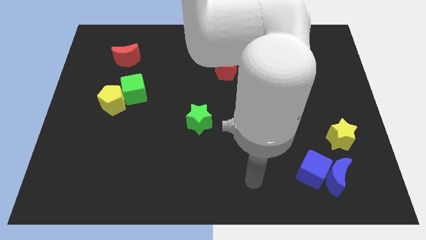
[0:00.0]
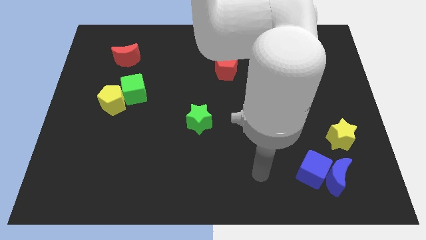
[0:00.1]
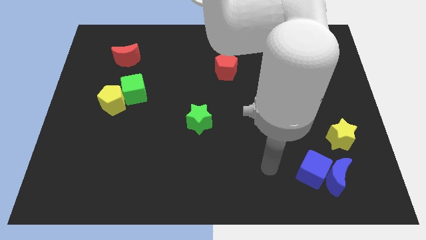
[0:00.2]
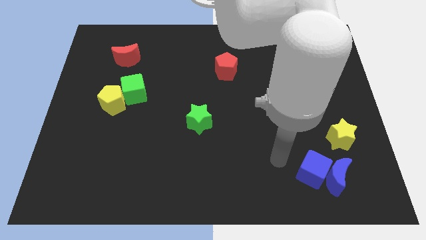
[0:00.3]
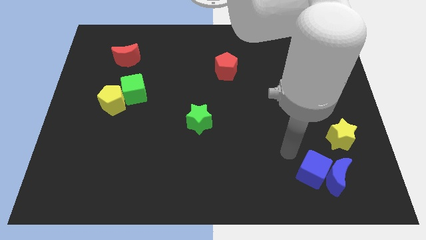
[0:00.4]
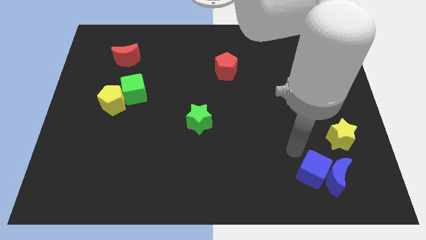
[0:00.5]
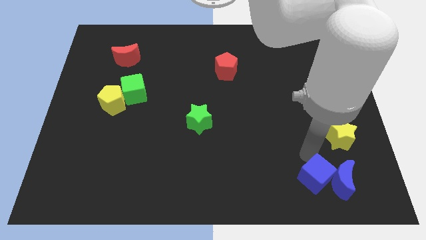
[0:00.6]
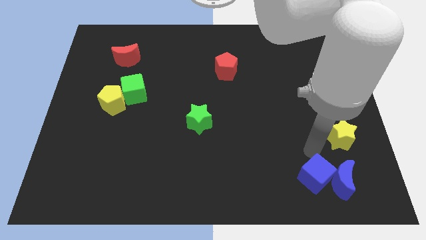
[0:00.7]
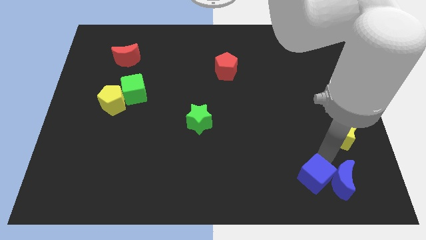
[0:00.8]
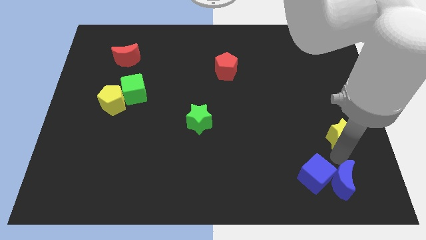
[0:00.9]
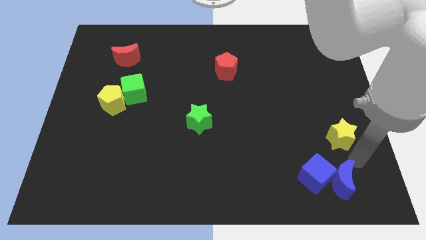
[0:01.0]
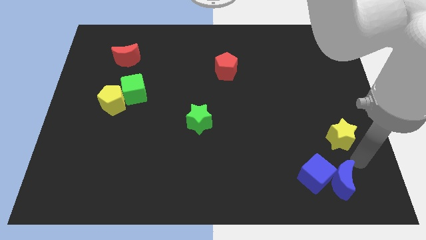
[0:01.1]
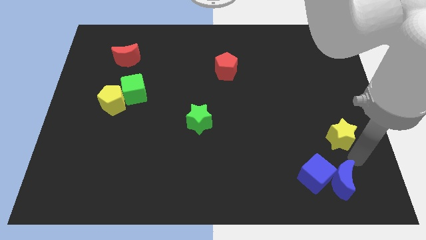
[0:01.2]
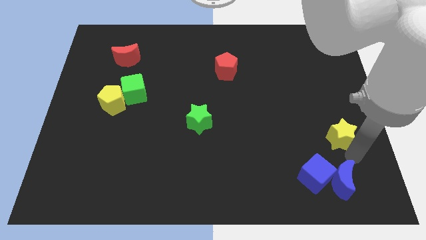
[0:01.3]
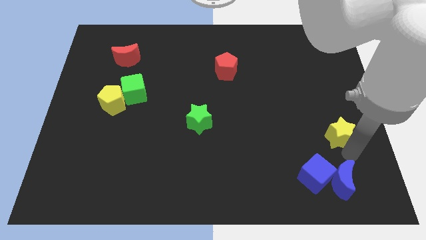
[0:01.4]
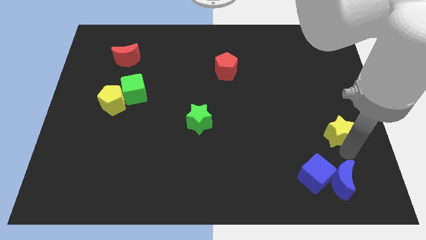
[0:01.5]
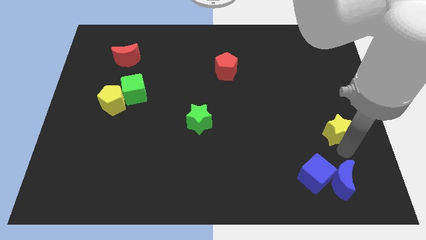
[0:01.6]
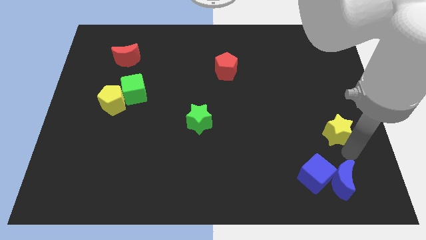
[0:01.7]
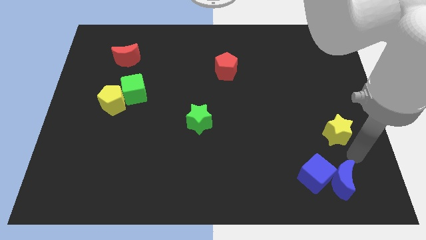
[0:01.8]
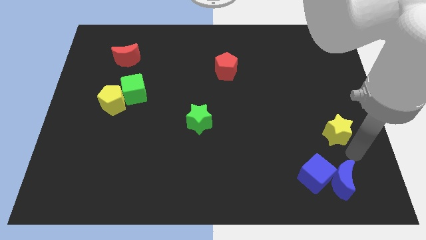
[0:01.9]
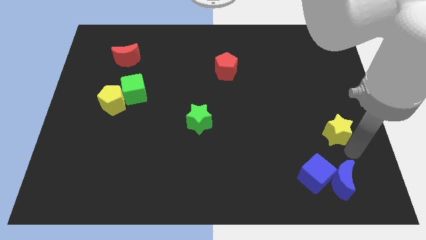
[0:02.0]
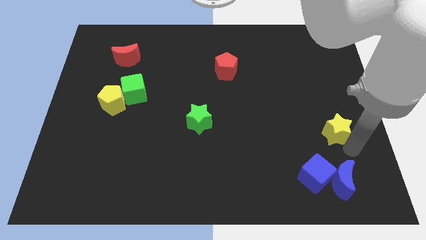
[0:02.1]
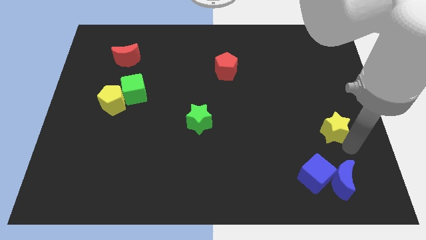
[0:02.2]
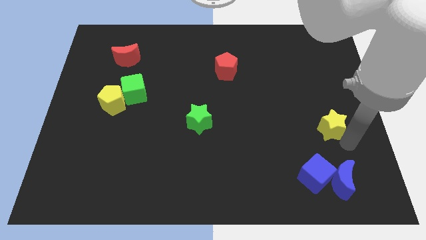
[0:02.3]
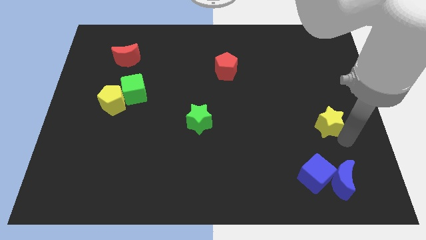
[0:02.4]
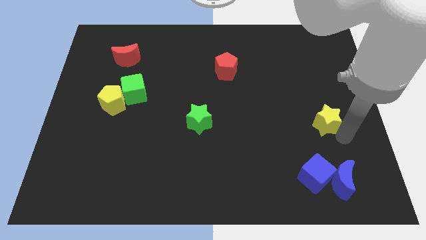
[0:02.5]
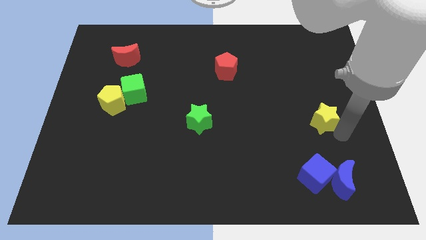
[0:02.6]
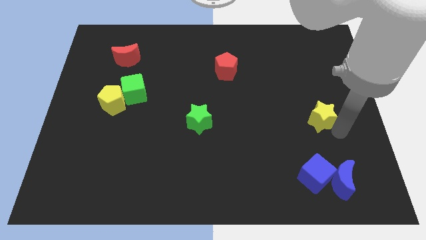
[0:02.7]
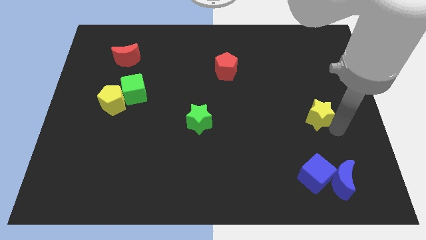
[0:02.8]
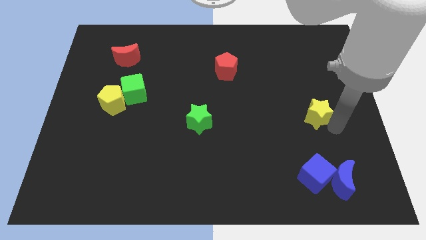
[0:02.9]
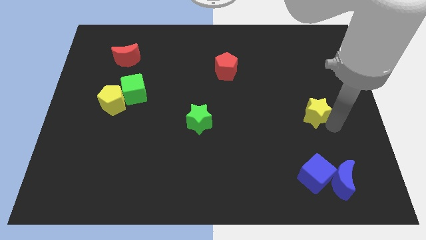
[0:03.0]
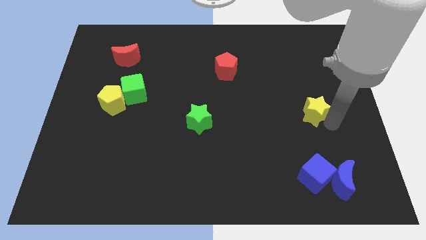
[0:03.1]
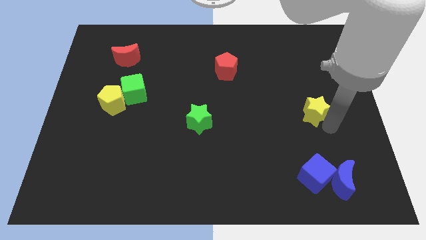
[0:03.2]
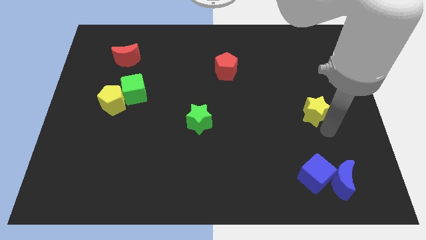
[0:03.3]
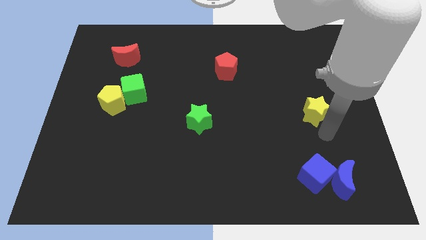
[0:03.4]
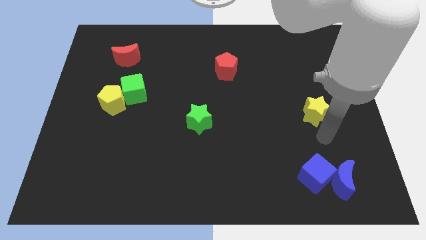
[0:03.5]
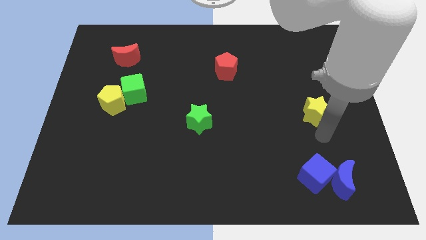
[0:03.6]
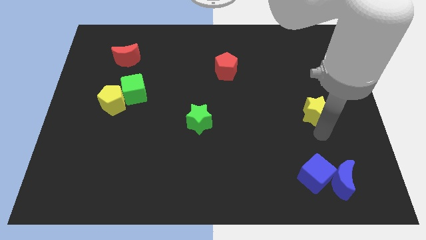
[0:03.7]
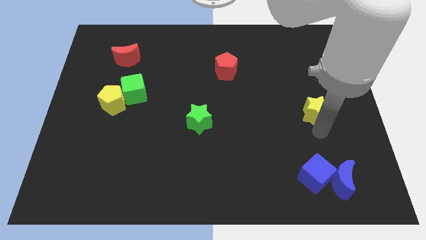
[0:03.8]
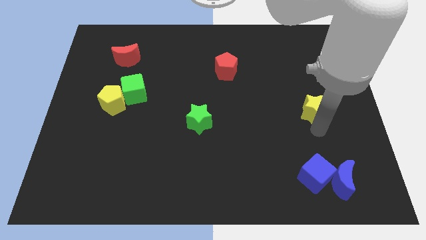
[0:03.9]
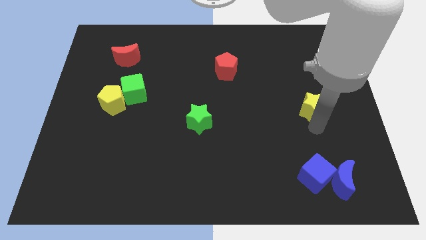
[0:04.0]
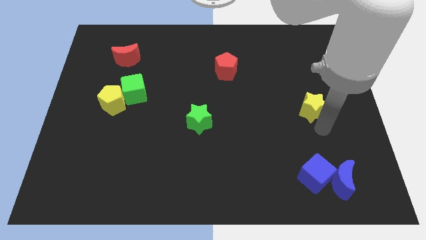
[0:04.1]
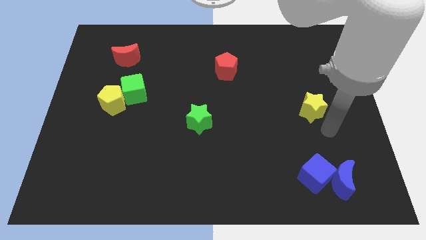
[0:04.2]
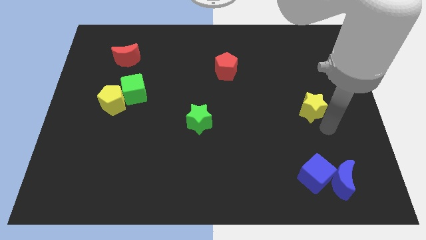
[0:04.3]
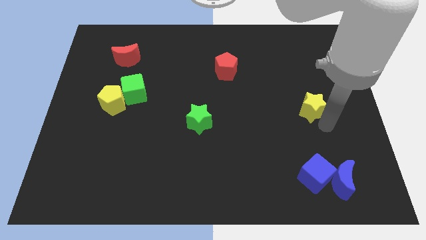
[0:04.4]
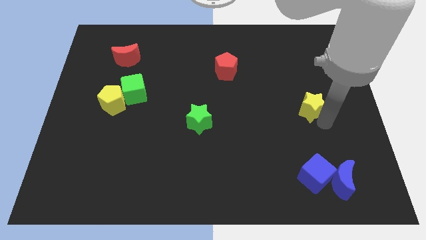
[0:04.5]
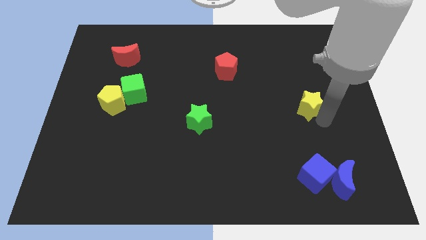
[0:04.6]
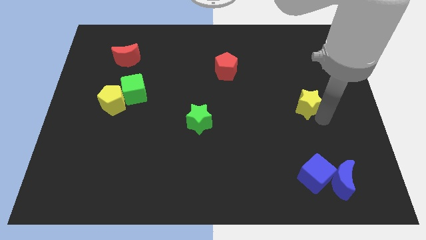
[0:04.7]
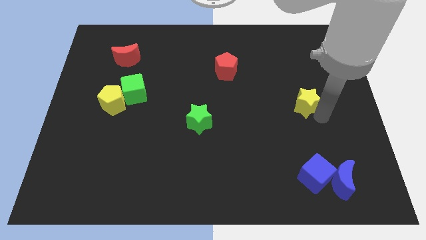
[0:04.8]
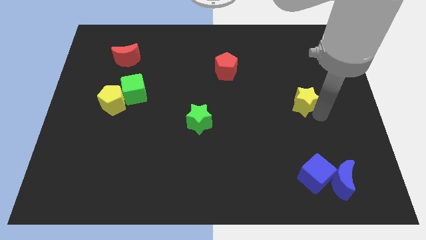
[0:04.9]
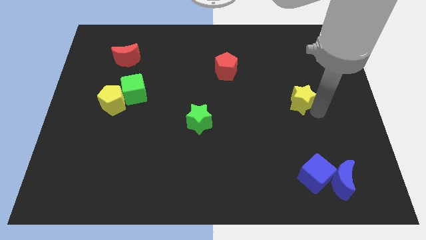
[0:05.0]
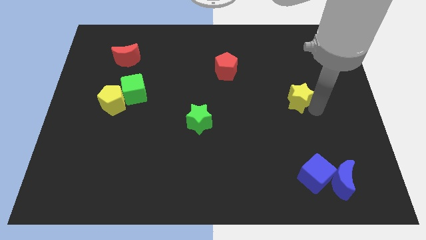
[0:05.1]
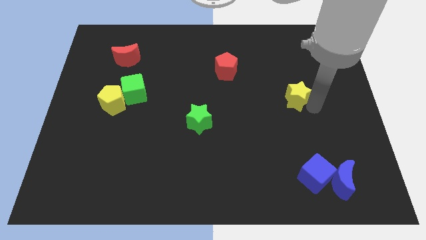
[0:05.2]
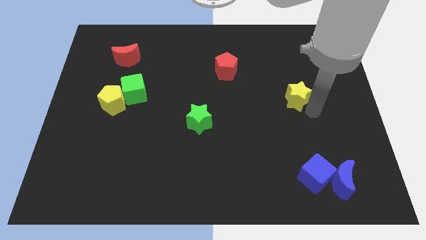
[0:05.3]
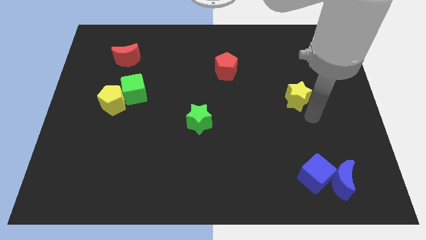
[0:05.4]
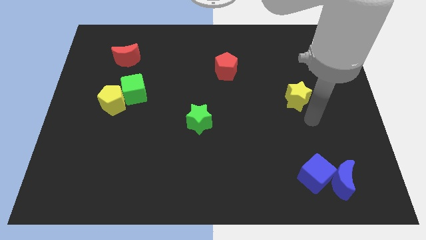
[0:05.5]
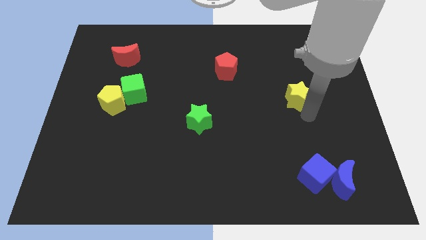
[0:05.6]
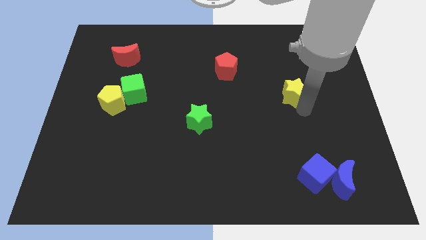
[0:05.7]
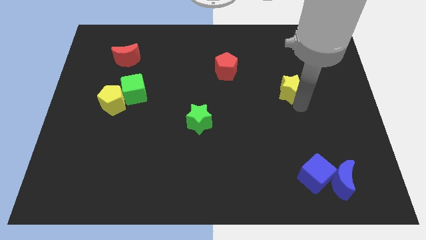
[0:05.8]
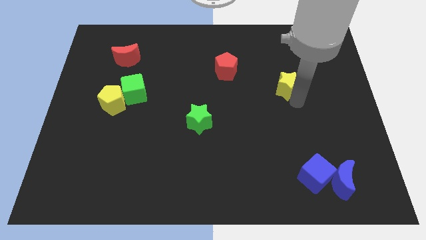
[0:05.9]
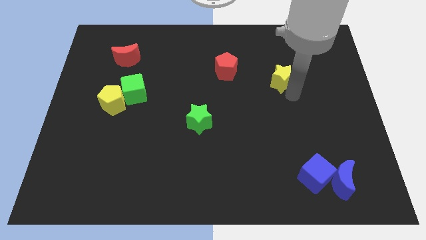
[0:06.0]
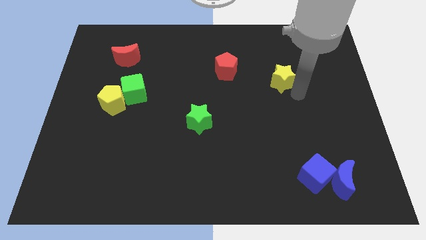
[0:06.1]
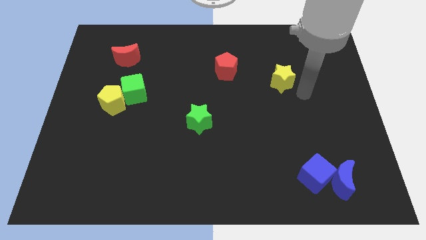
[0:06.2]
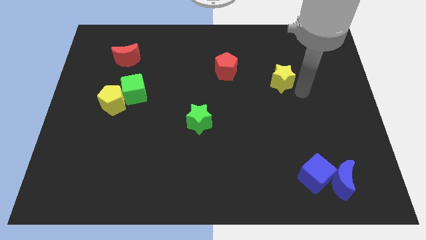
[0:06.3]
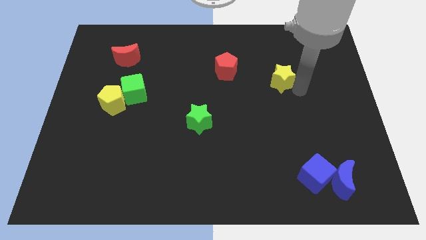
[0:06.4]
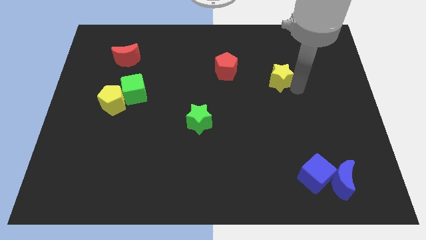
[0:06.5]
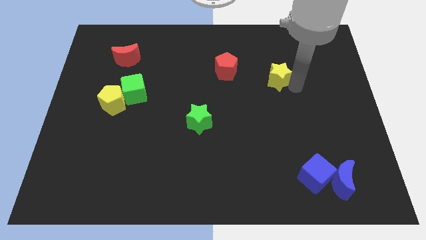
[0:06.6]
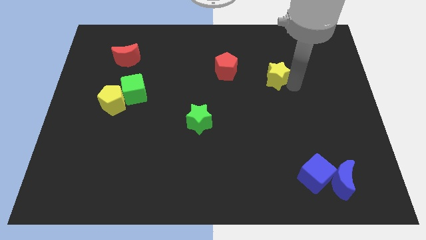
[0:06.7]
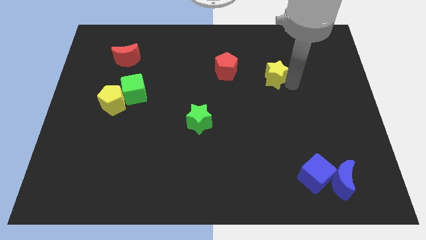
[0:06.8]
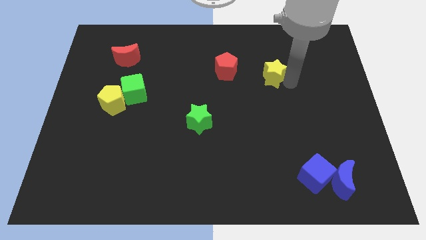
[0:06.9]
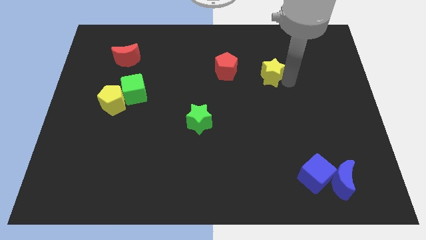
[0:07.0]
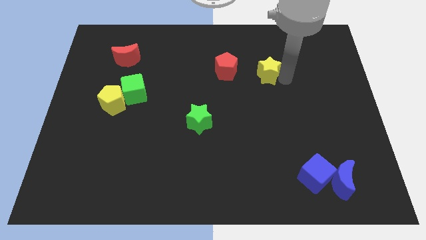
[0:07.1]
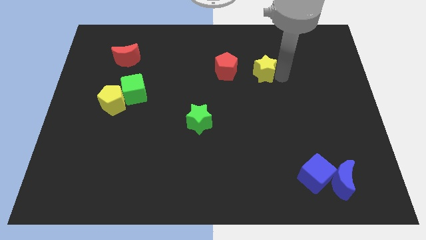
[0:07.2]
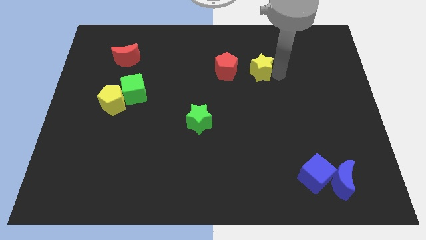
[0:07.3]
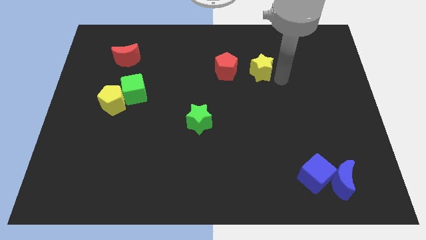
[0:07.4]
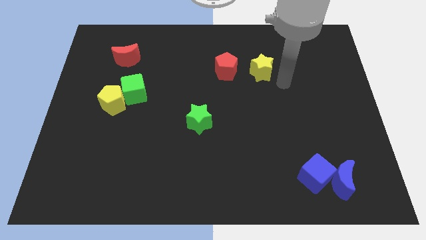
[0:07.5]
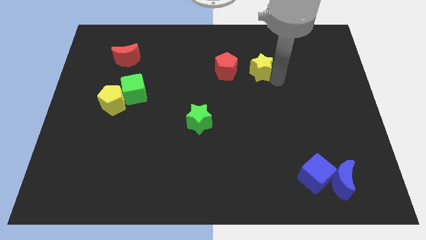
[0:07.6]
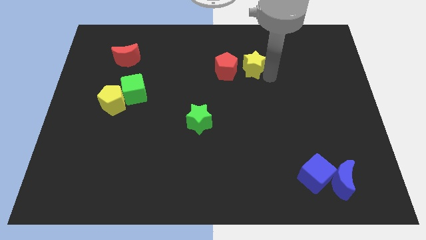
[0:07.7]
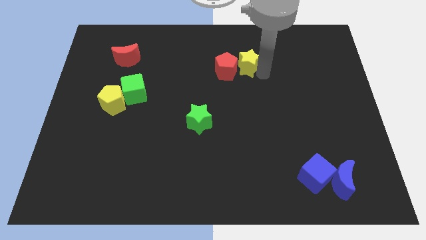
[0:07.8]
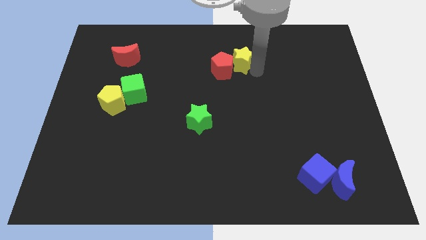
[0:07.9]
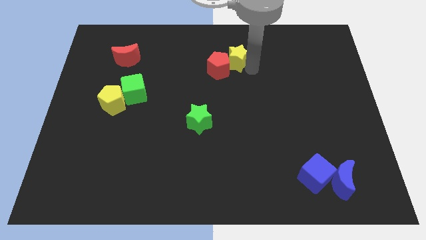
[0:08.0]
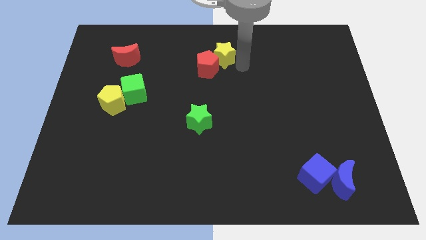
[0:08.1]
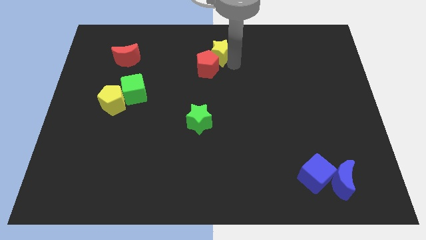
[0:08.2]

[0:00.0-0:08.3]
slide the yellow star to the top side

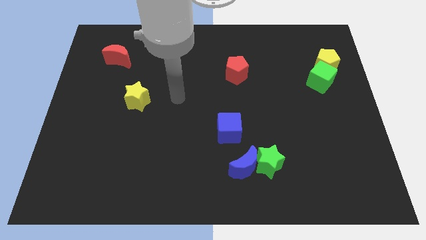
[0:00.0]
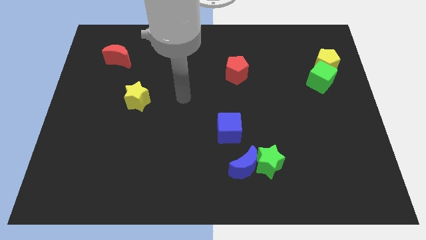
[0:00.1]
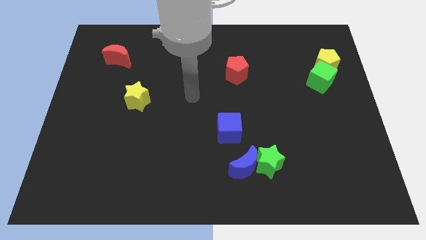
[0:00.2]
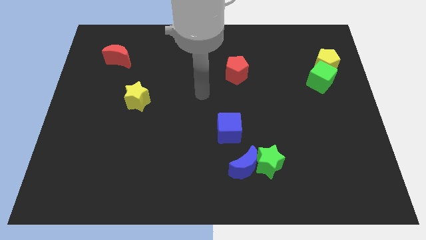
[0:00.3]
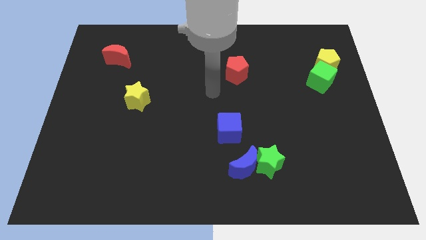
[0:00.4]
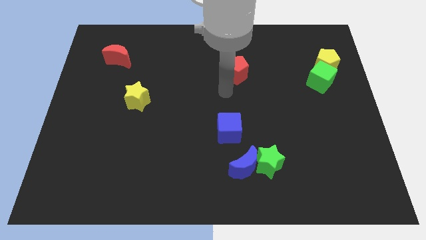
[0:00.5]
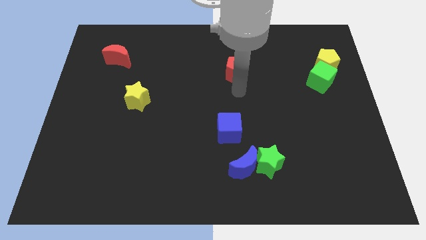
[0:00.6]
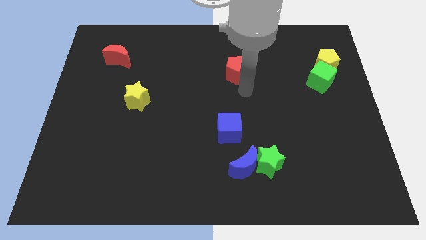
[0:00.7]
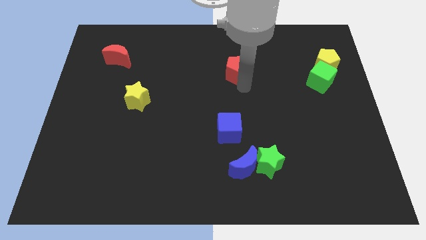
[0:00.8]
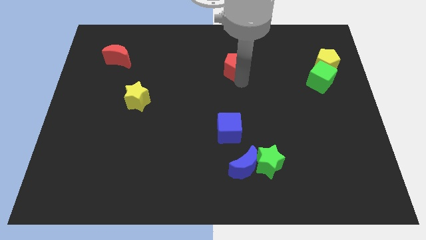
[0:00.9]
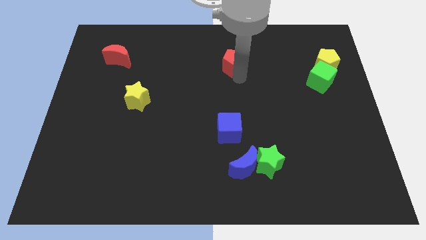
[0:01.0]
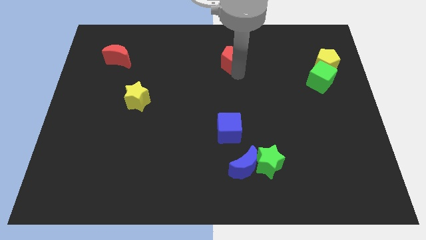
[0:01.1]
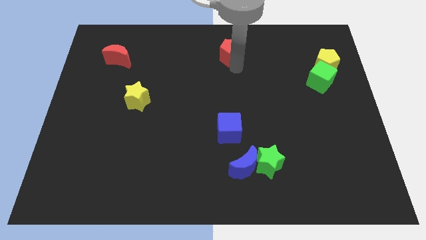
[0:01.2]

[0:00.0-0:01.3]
put the red pentagon to the top side
